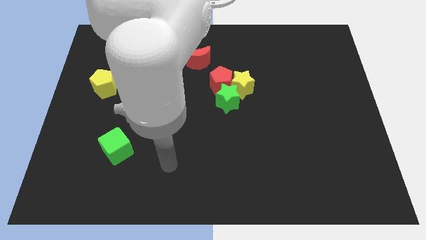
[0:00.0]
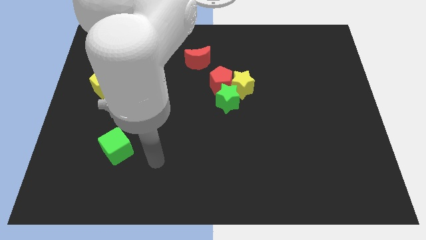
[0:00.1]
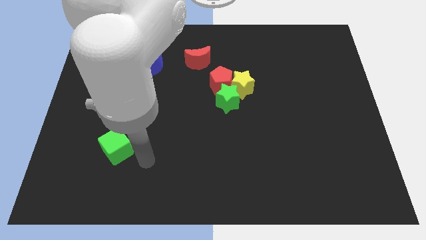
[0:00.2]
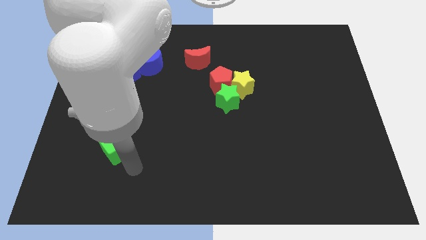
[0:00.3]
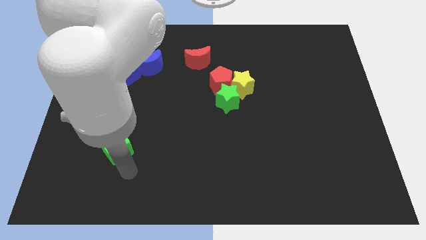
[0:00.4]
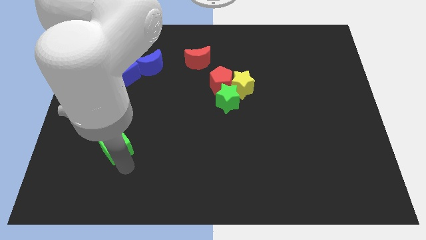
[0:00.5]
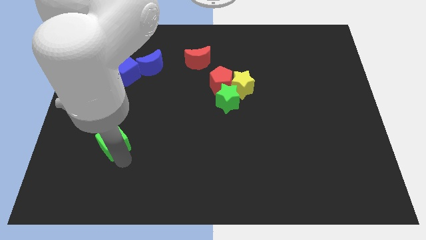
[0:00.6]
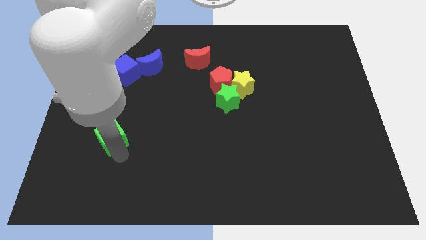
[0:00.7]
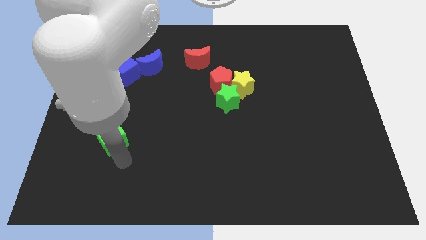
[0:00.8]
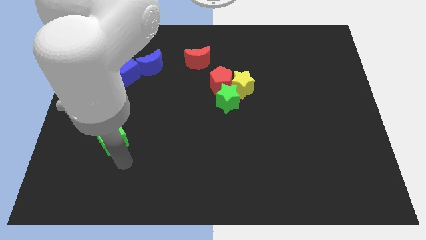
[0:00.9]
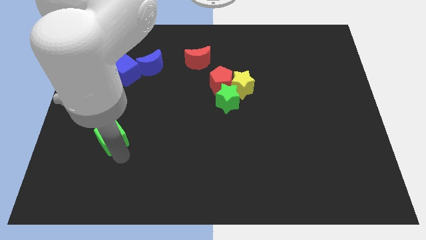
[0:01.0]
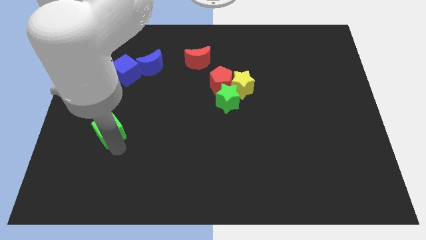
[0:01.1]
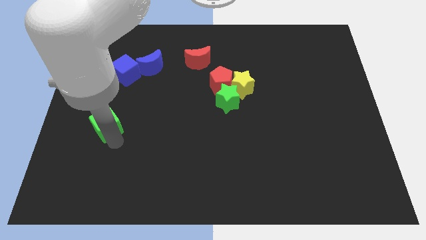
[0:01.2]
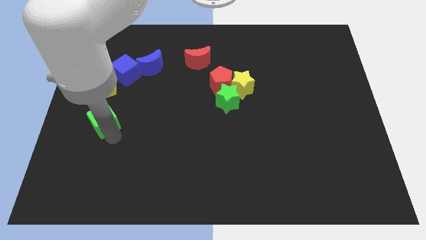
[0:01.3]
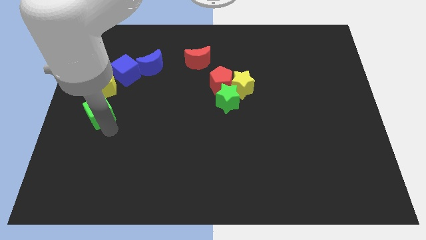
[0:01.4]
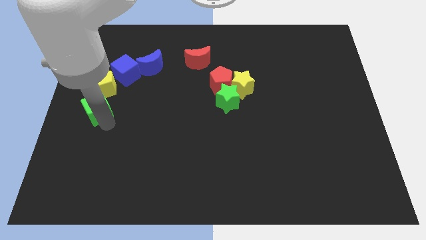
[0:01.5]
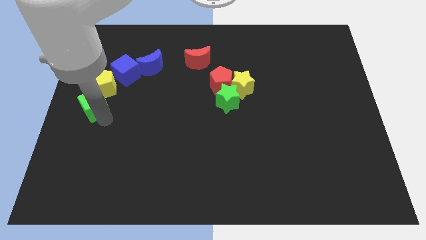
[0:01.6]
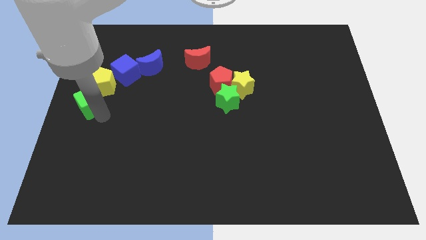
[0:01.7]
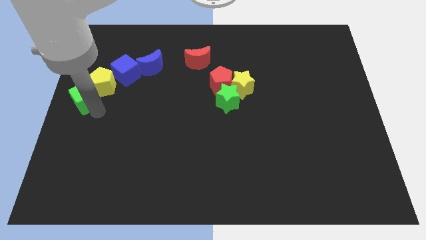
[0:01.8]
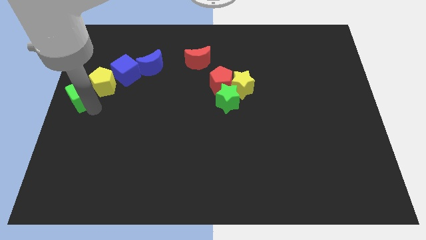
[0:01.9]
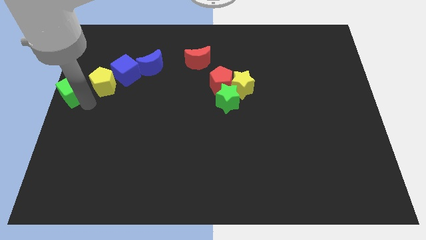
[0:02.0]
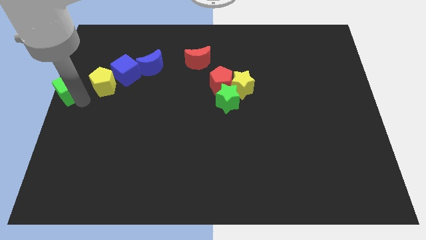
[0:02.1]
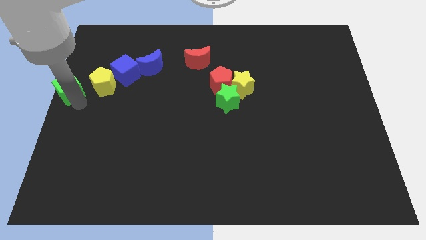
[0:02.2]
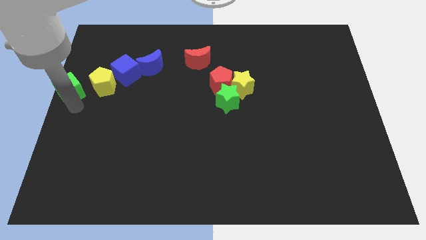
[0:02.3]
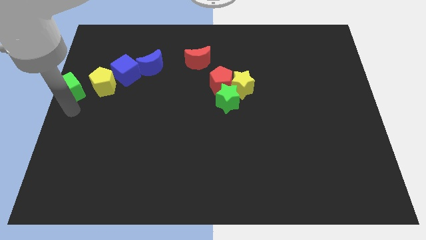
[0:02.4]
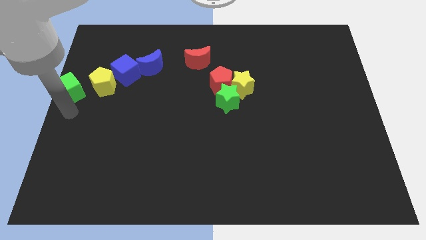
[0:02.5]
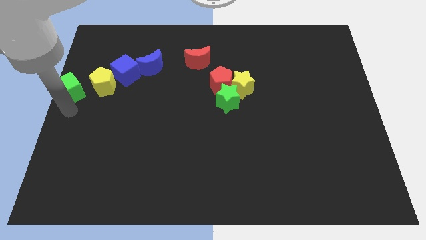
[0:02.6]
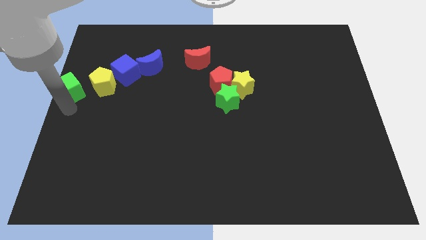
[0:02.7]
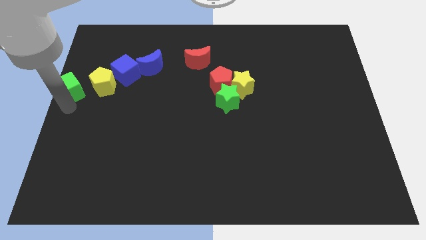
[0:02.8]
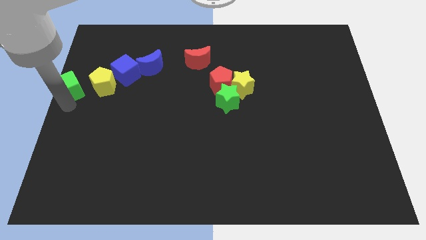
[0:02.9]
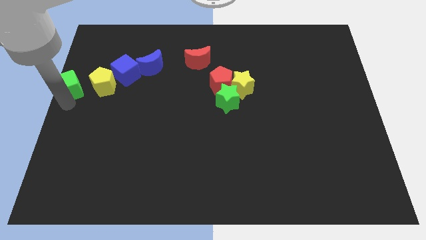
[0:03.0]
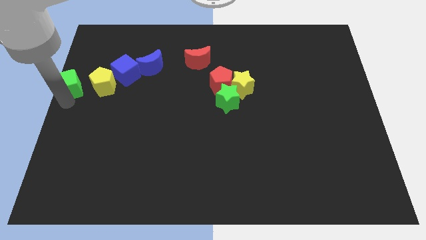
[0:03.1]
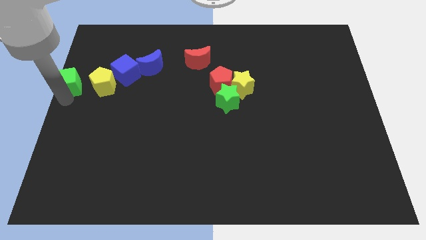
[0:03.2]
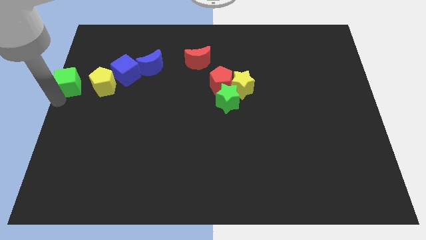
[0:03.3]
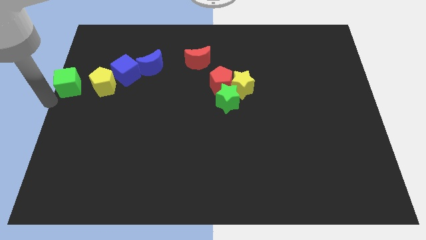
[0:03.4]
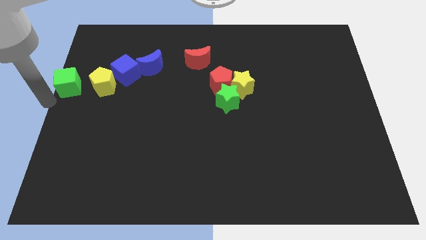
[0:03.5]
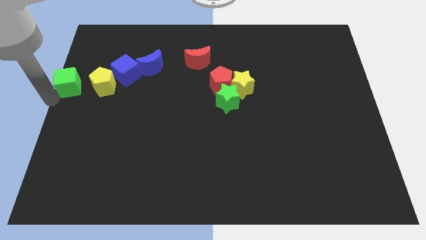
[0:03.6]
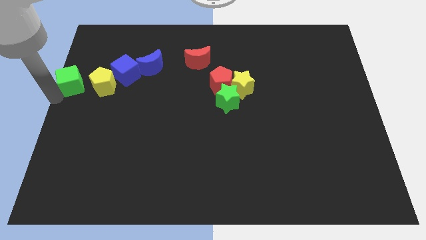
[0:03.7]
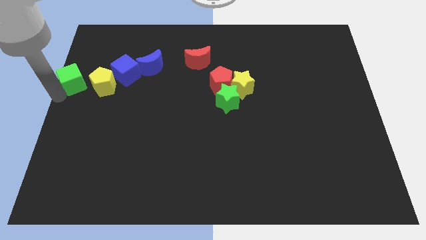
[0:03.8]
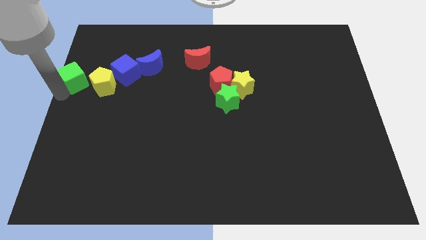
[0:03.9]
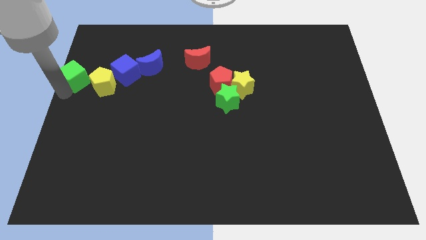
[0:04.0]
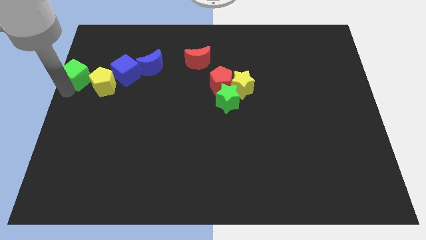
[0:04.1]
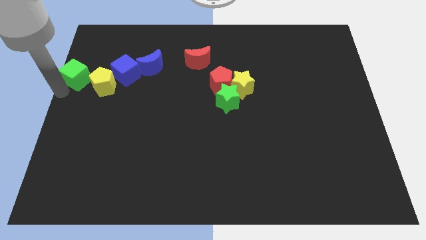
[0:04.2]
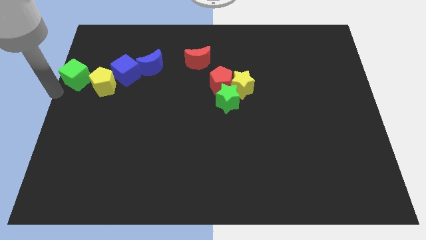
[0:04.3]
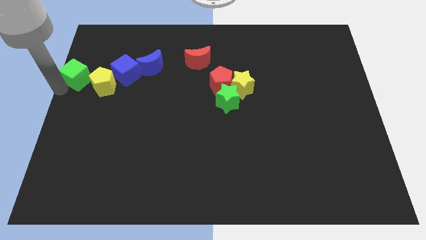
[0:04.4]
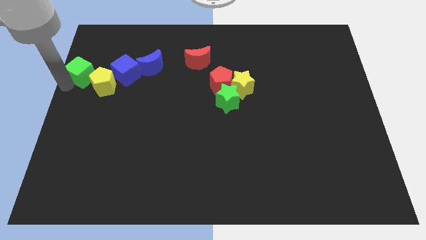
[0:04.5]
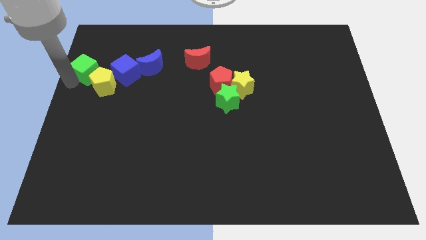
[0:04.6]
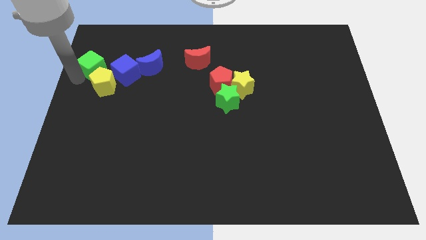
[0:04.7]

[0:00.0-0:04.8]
push the green cube to the top left side of the blue cube

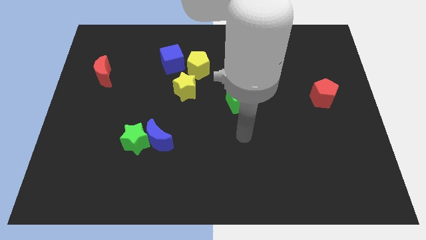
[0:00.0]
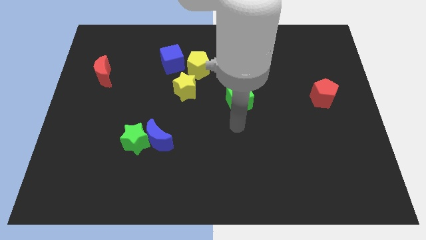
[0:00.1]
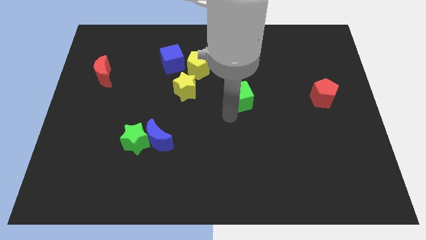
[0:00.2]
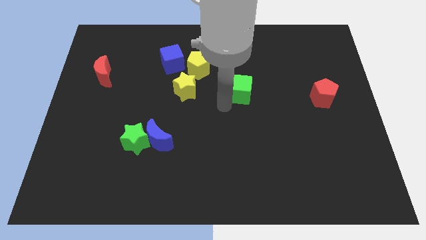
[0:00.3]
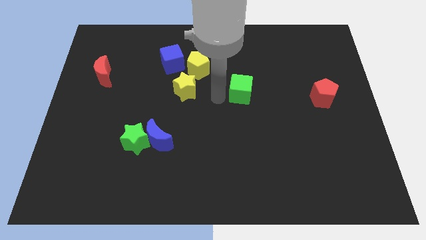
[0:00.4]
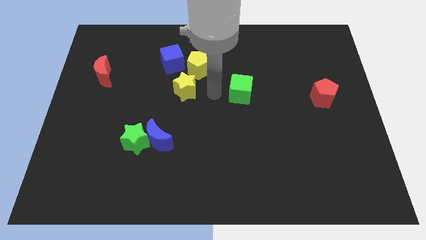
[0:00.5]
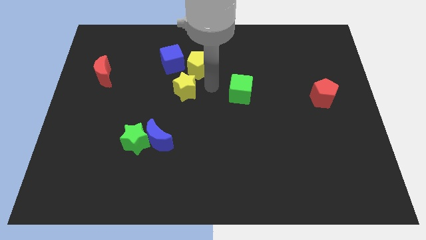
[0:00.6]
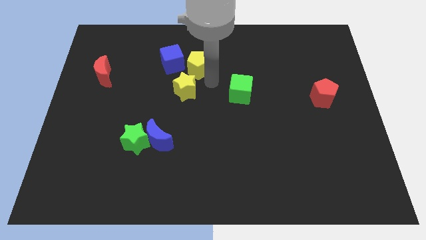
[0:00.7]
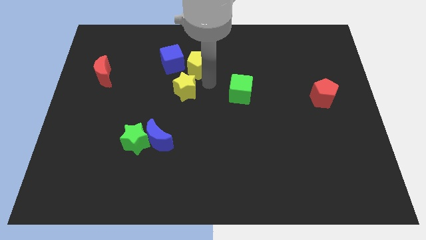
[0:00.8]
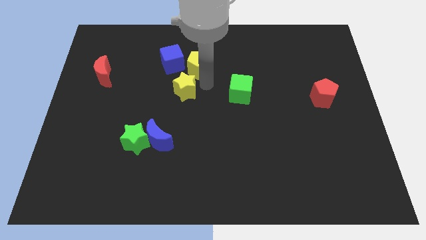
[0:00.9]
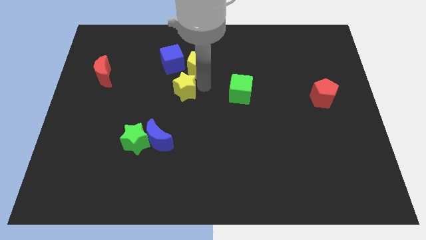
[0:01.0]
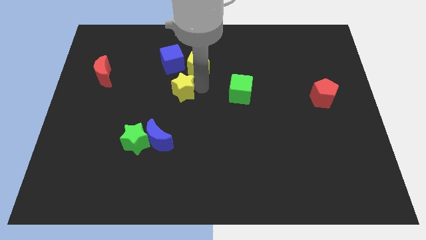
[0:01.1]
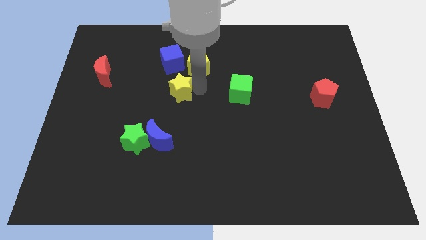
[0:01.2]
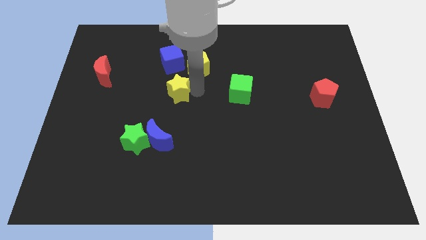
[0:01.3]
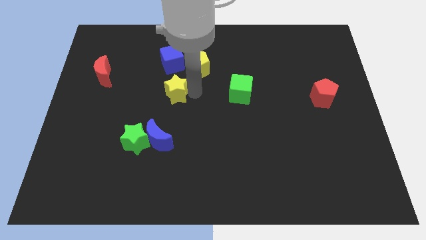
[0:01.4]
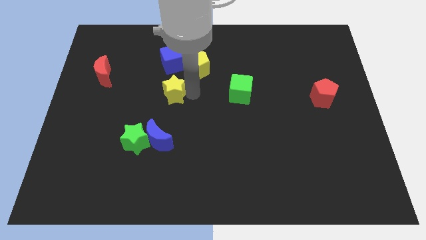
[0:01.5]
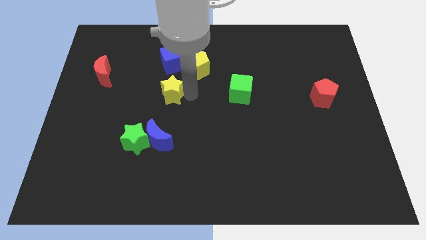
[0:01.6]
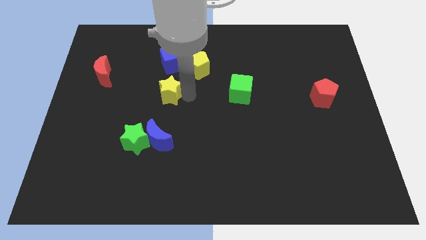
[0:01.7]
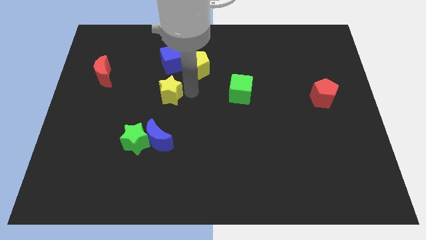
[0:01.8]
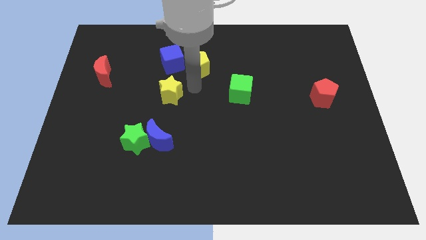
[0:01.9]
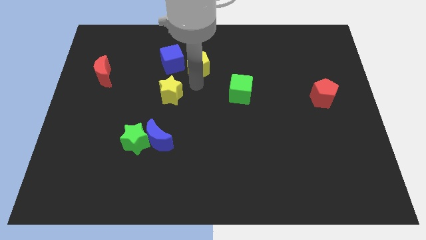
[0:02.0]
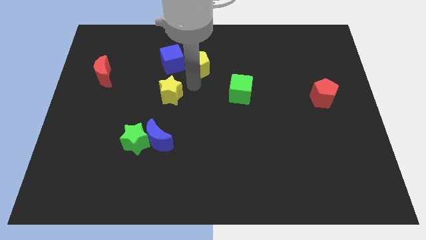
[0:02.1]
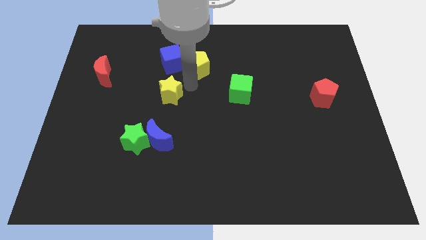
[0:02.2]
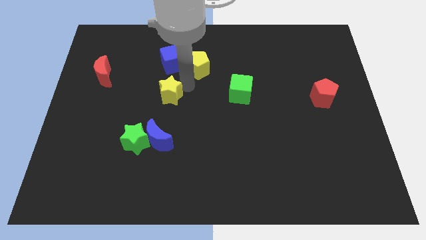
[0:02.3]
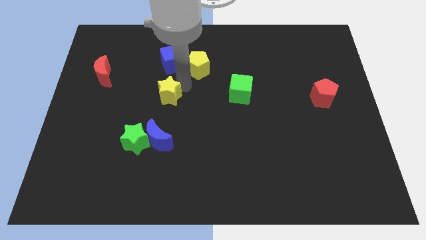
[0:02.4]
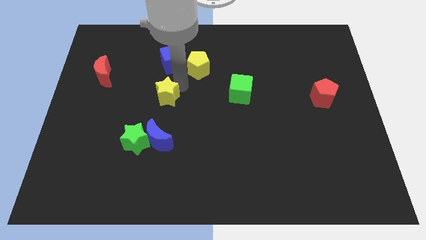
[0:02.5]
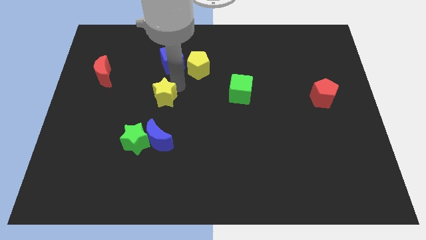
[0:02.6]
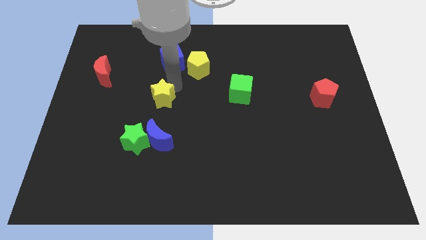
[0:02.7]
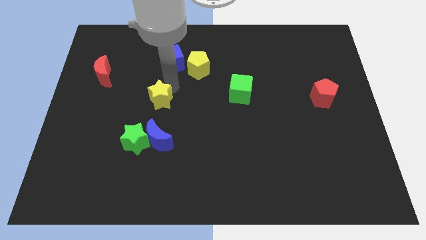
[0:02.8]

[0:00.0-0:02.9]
push the yellow star to the top side of the green star
